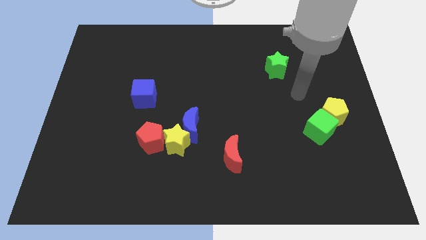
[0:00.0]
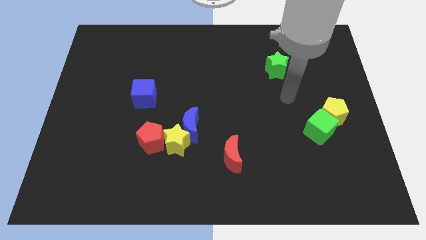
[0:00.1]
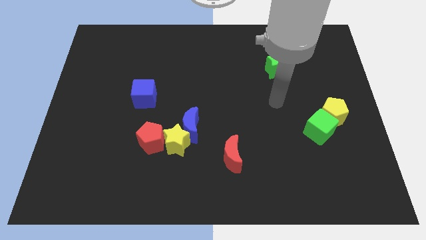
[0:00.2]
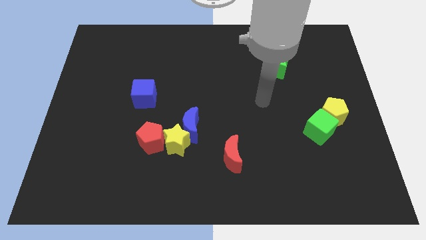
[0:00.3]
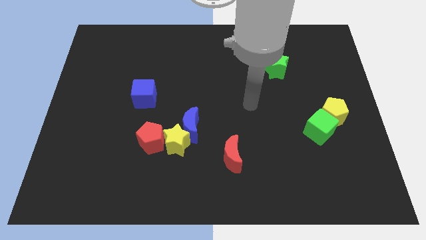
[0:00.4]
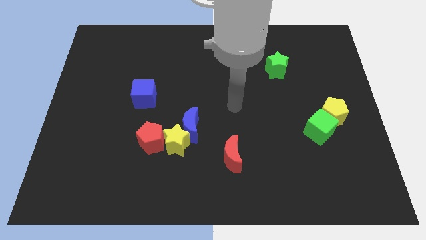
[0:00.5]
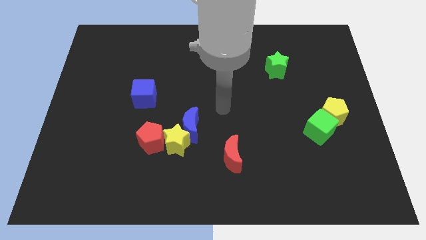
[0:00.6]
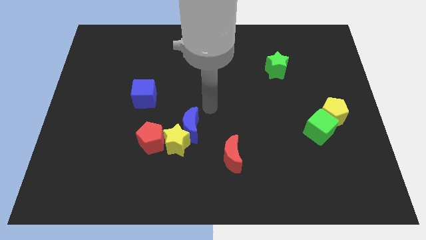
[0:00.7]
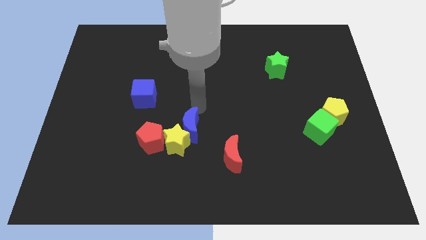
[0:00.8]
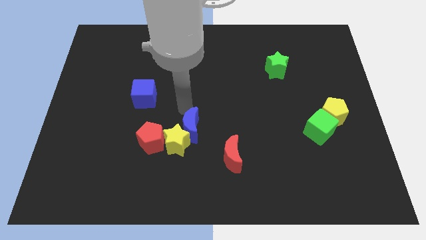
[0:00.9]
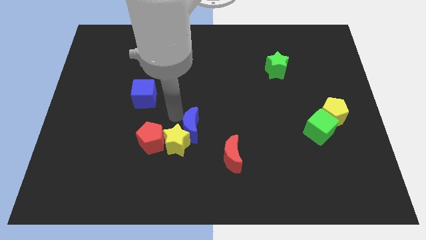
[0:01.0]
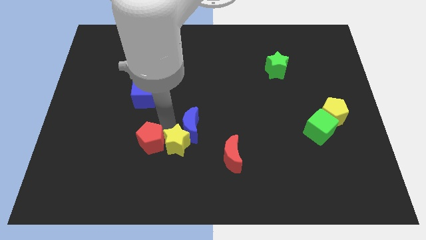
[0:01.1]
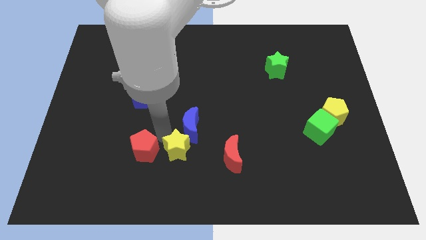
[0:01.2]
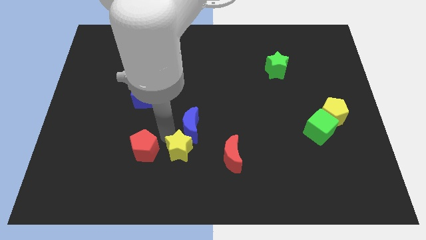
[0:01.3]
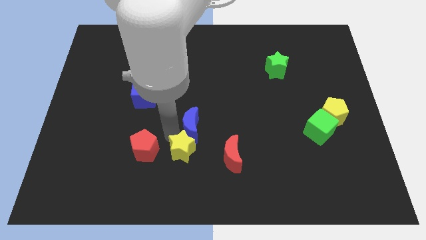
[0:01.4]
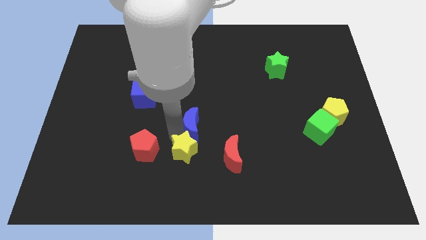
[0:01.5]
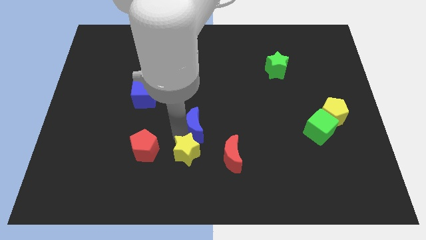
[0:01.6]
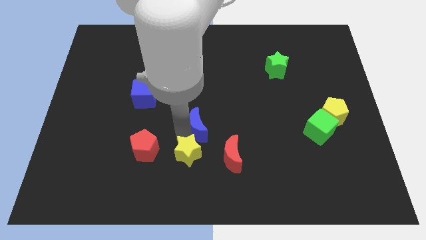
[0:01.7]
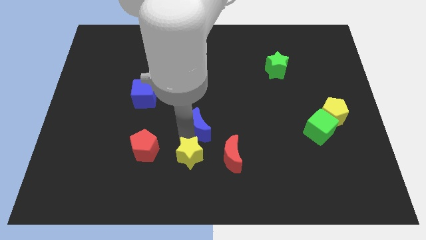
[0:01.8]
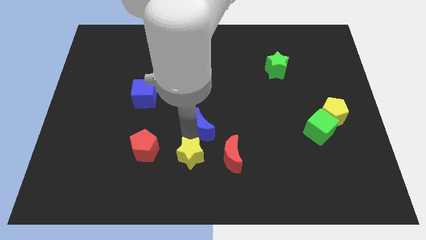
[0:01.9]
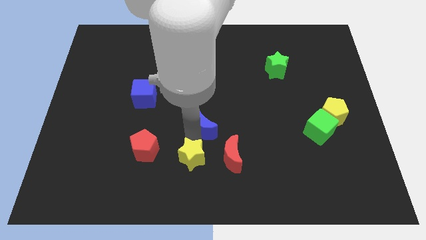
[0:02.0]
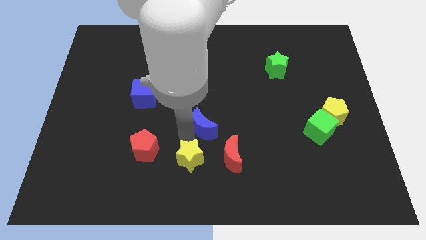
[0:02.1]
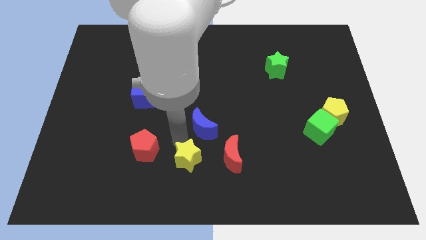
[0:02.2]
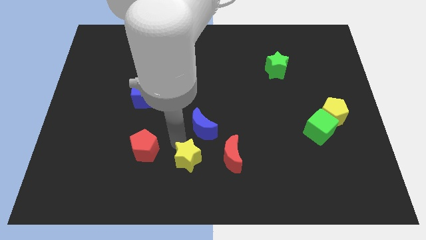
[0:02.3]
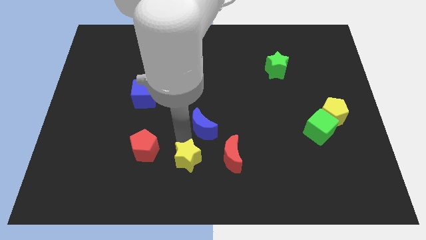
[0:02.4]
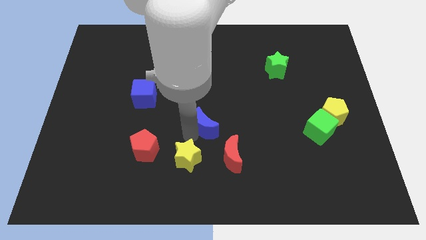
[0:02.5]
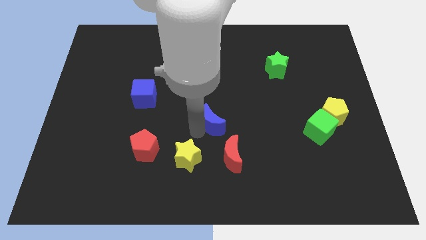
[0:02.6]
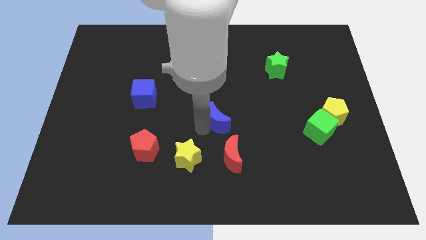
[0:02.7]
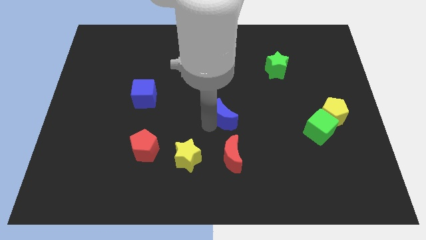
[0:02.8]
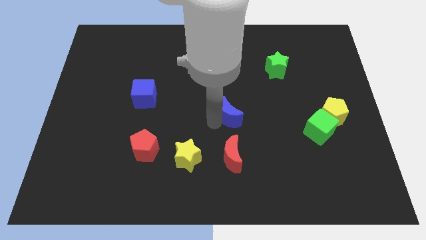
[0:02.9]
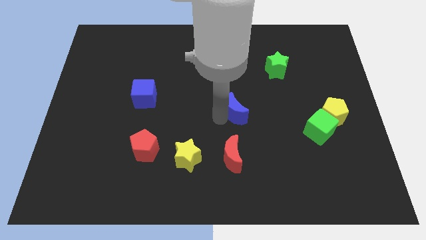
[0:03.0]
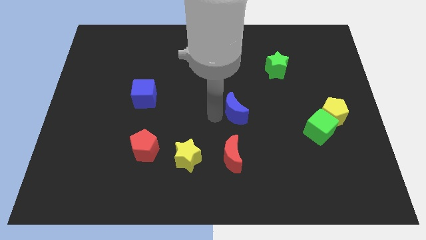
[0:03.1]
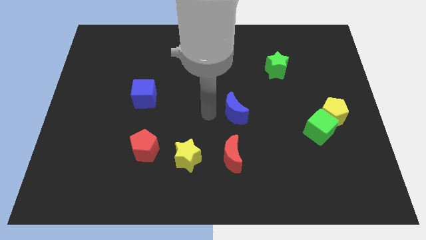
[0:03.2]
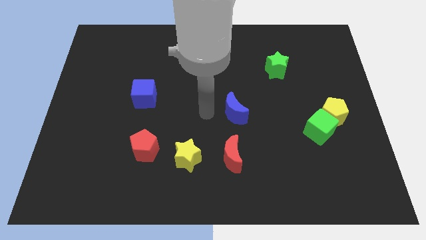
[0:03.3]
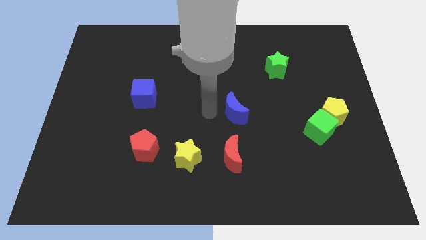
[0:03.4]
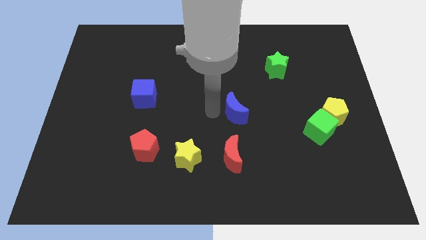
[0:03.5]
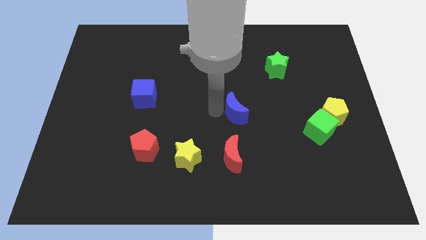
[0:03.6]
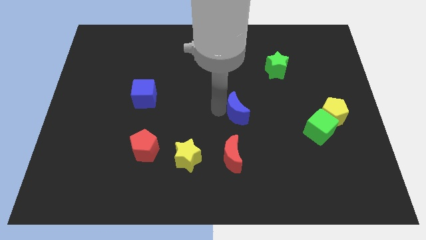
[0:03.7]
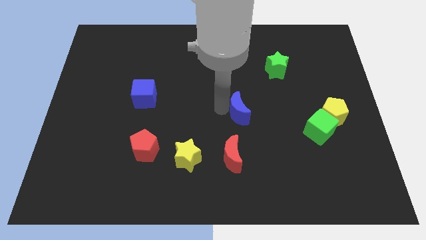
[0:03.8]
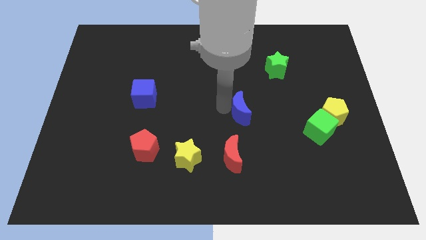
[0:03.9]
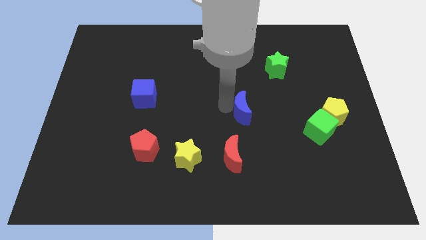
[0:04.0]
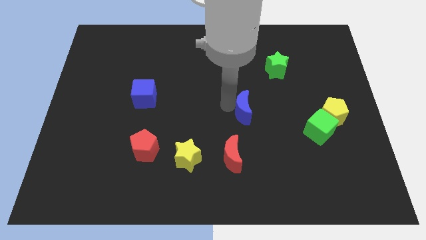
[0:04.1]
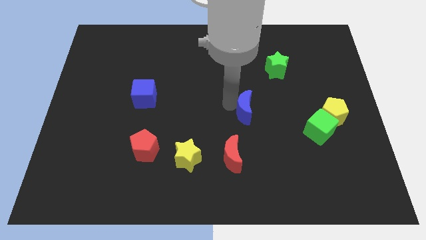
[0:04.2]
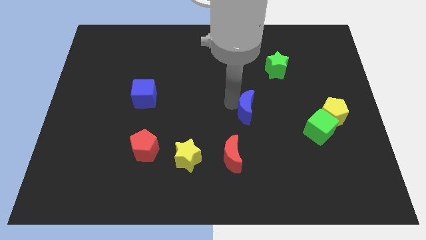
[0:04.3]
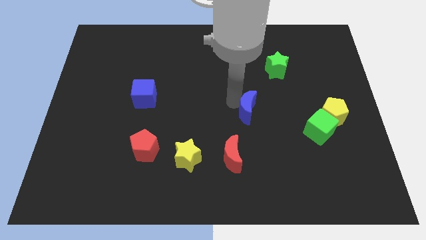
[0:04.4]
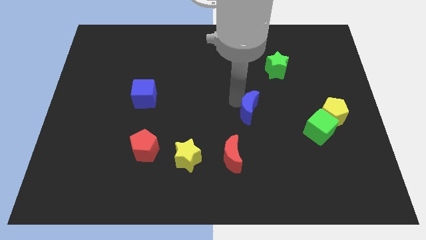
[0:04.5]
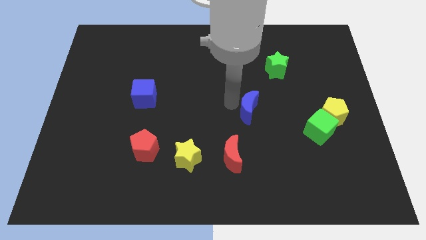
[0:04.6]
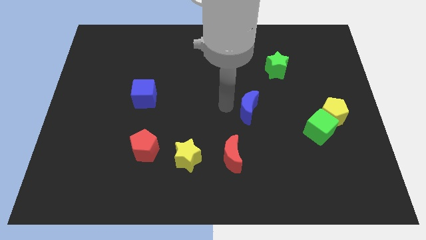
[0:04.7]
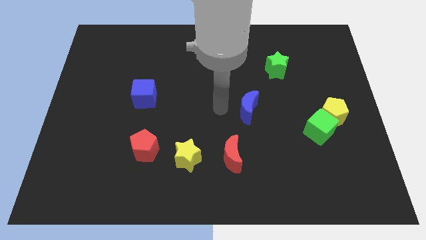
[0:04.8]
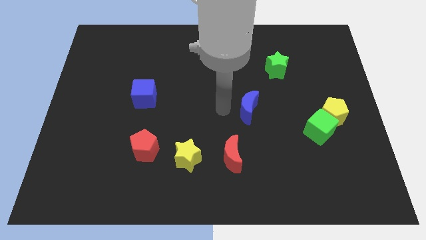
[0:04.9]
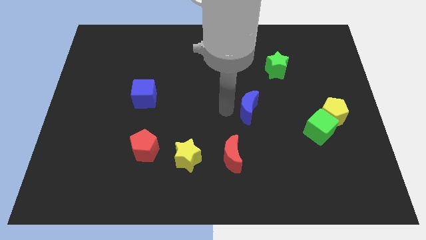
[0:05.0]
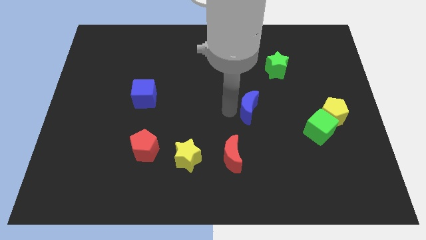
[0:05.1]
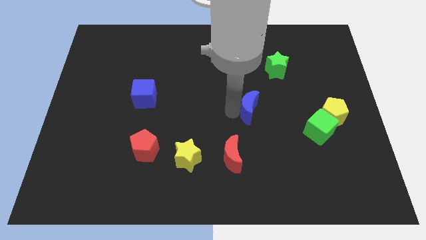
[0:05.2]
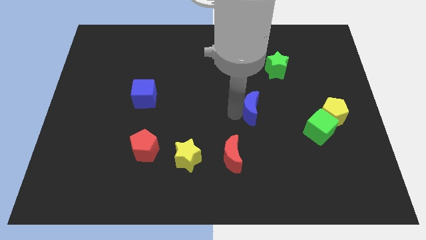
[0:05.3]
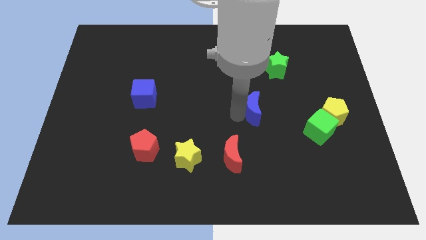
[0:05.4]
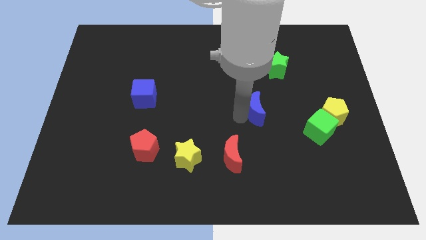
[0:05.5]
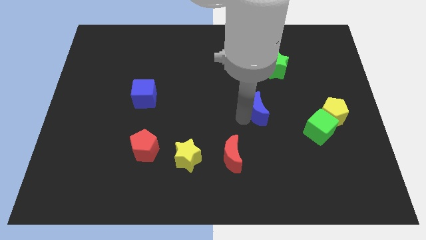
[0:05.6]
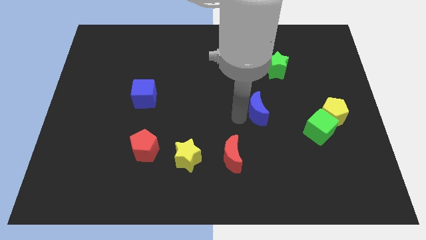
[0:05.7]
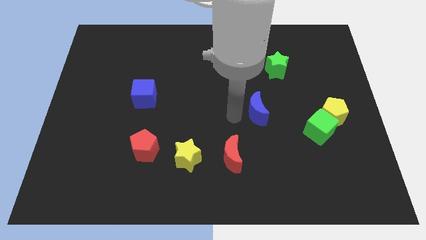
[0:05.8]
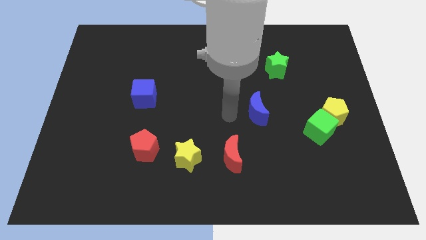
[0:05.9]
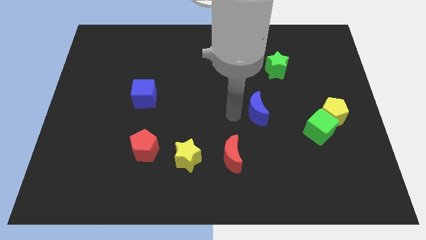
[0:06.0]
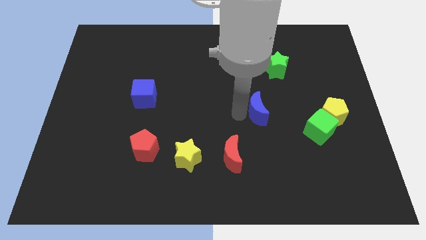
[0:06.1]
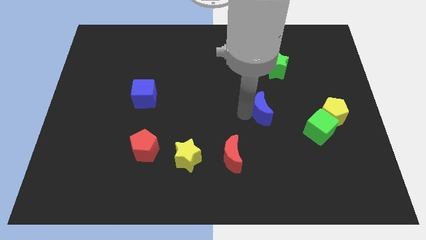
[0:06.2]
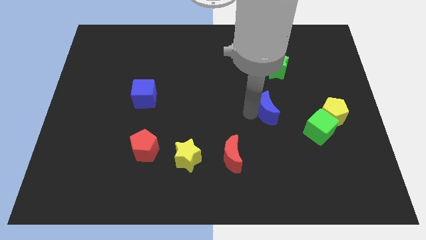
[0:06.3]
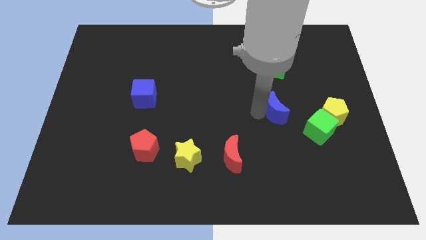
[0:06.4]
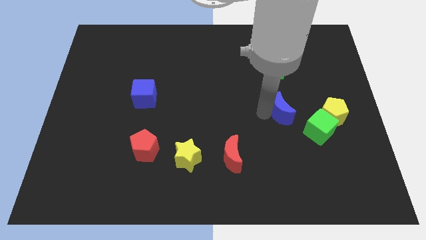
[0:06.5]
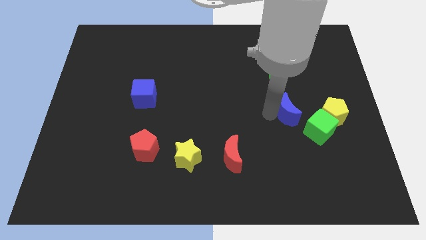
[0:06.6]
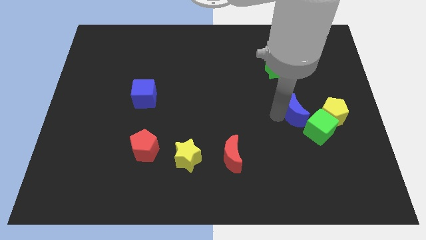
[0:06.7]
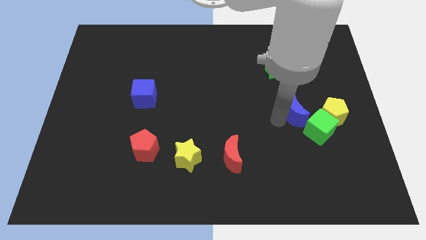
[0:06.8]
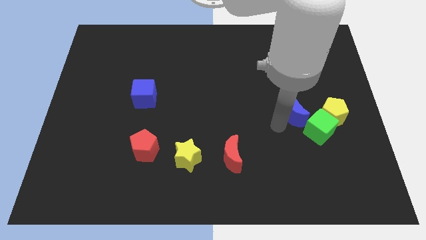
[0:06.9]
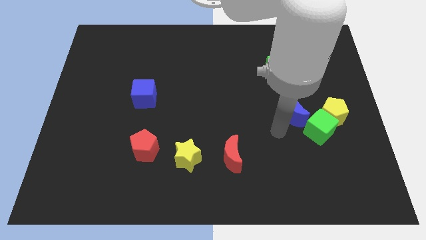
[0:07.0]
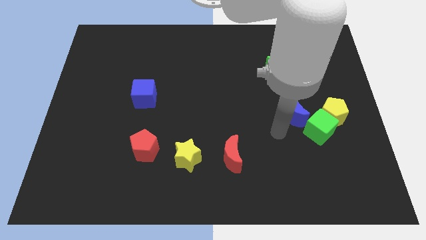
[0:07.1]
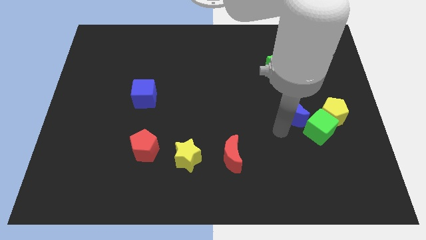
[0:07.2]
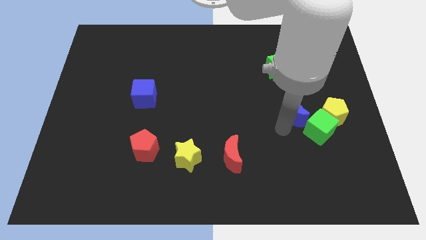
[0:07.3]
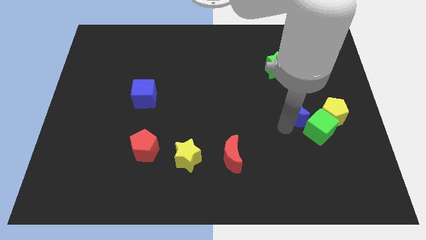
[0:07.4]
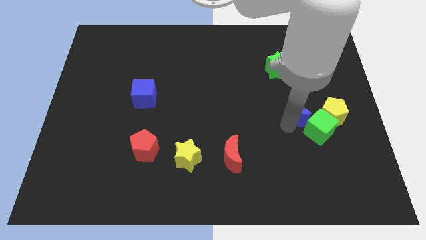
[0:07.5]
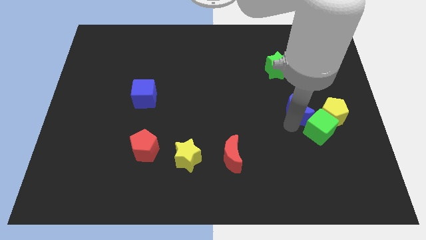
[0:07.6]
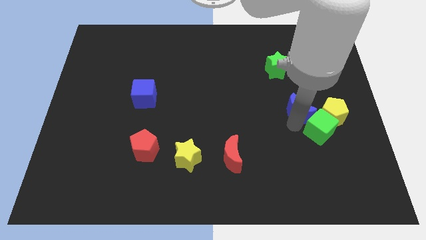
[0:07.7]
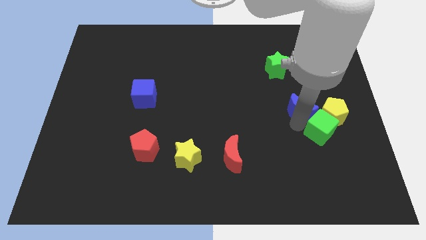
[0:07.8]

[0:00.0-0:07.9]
put the blue moon to the top left side of the yellow pentagon
